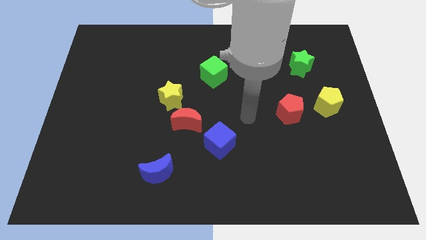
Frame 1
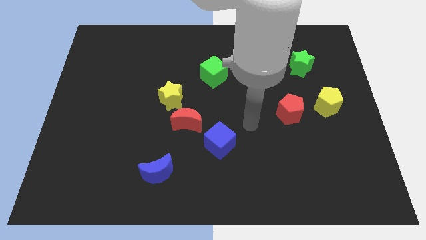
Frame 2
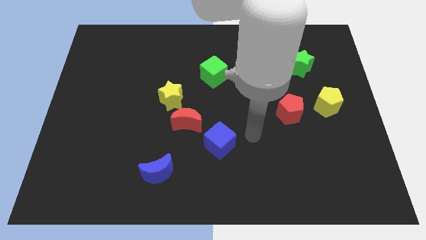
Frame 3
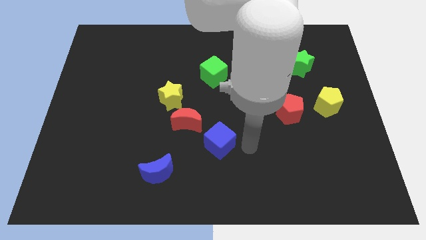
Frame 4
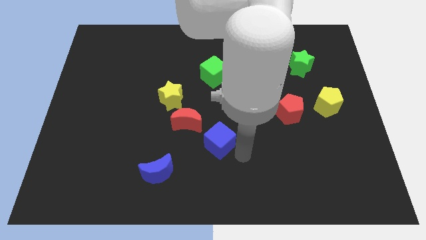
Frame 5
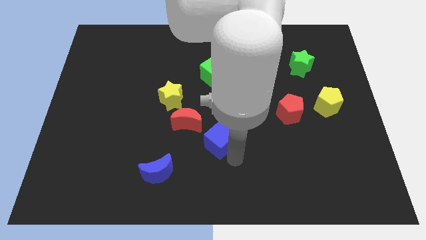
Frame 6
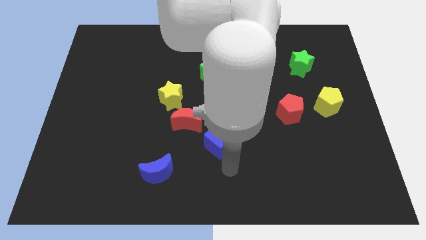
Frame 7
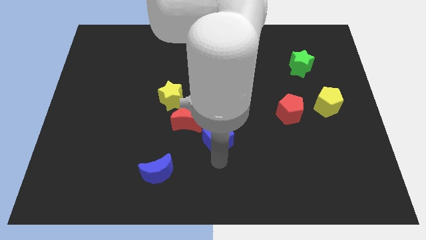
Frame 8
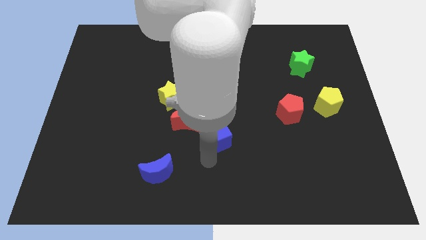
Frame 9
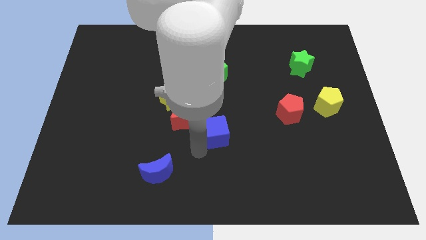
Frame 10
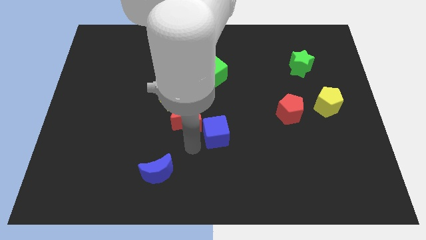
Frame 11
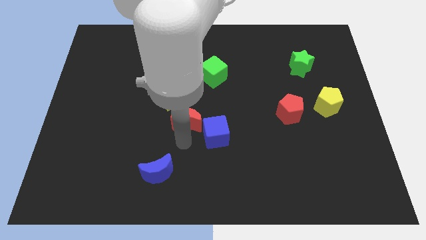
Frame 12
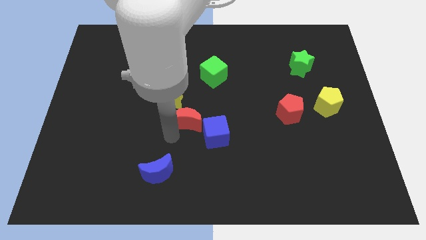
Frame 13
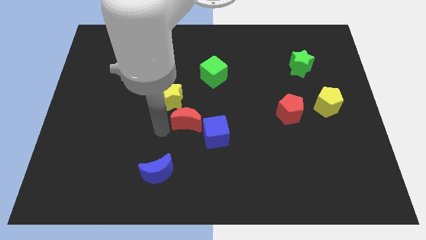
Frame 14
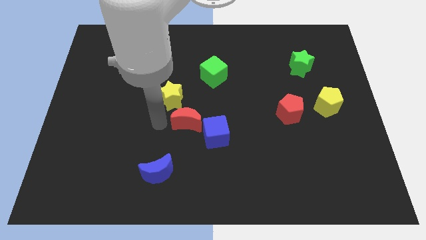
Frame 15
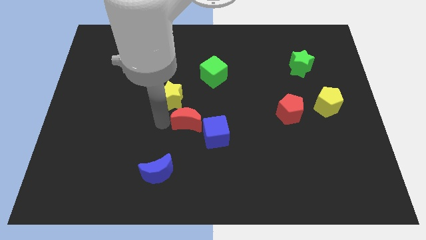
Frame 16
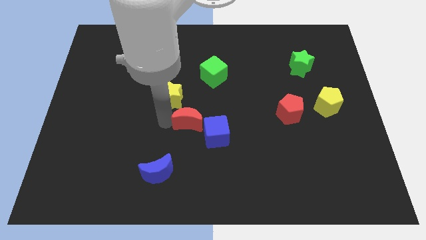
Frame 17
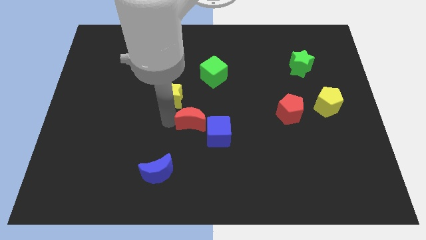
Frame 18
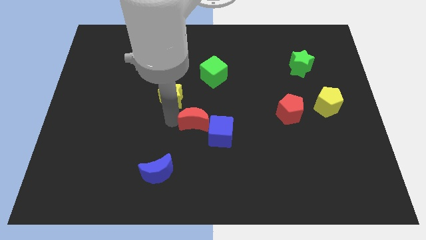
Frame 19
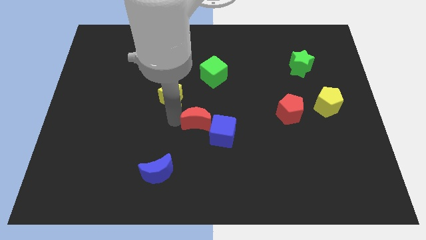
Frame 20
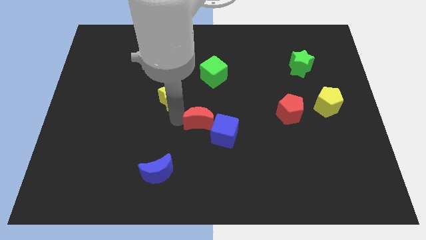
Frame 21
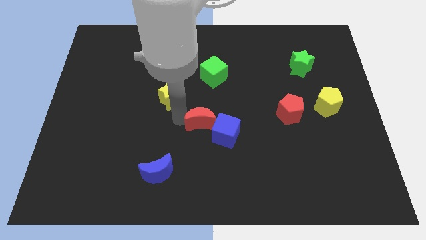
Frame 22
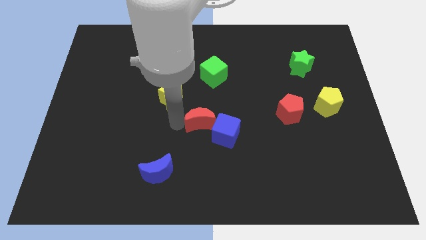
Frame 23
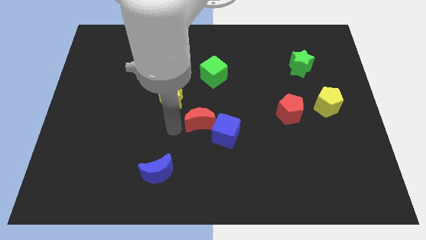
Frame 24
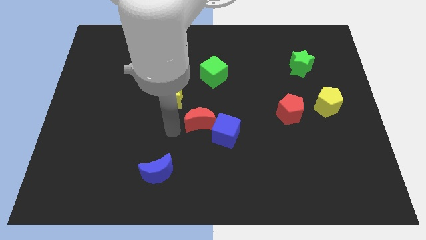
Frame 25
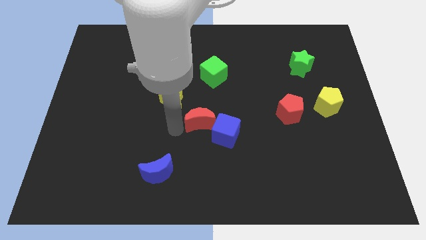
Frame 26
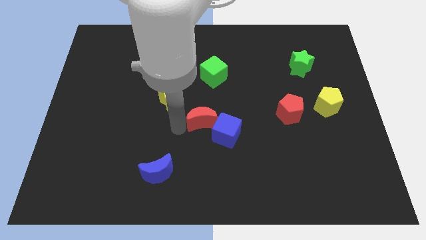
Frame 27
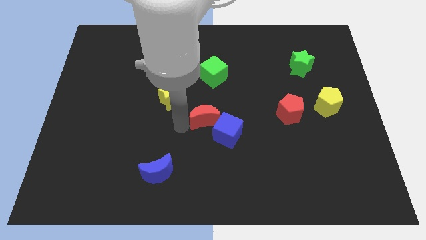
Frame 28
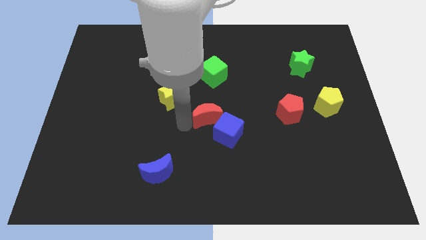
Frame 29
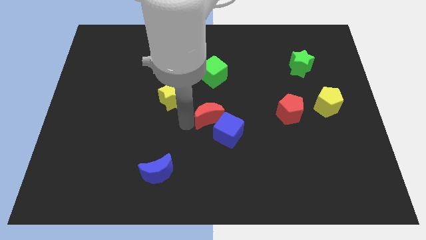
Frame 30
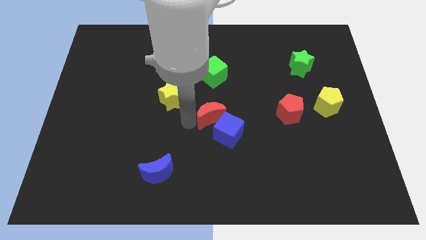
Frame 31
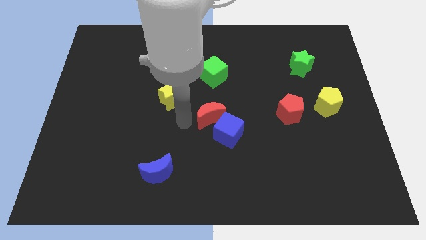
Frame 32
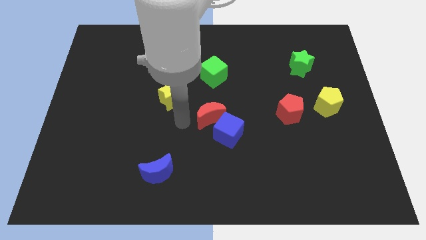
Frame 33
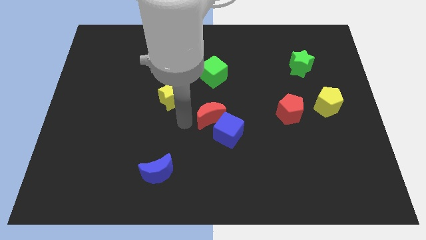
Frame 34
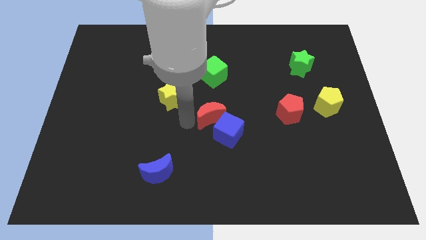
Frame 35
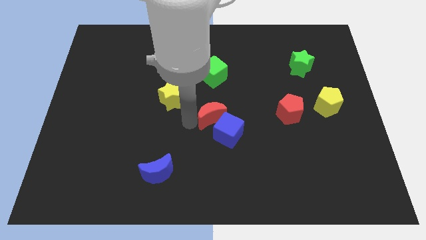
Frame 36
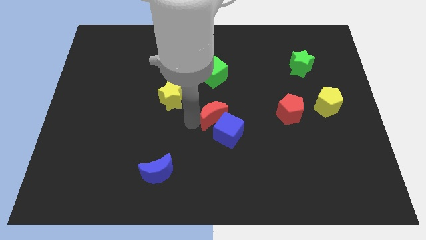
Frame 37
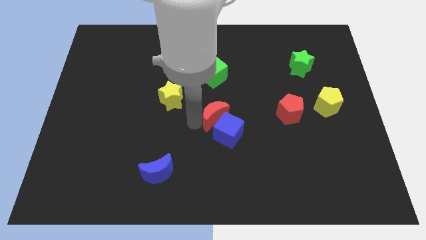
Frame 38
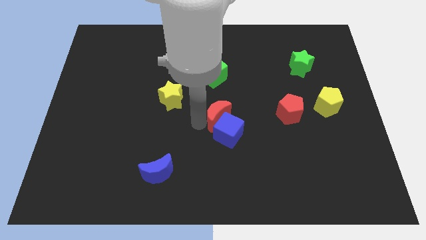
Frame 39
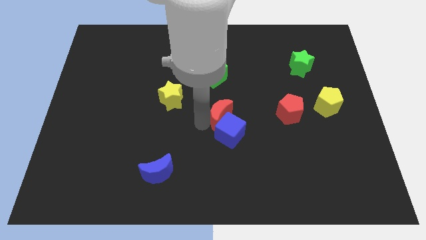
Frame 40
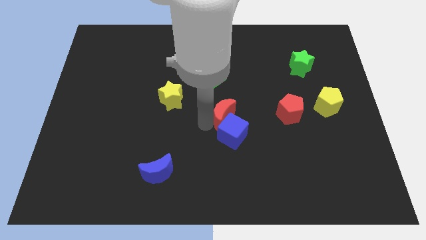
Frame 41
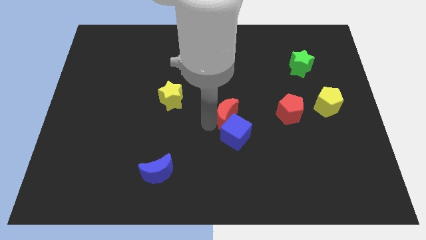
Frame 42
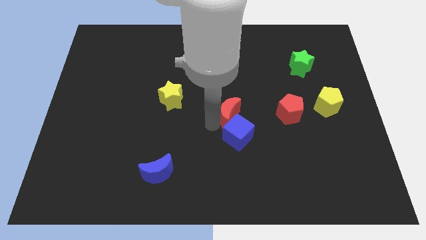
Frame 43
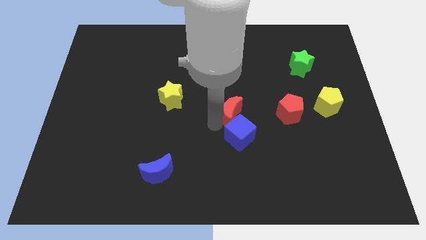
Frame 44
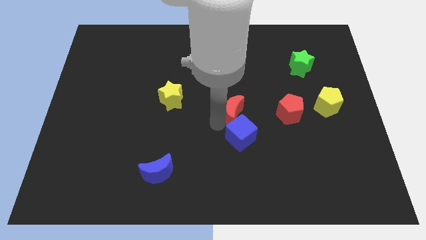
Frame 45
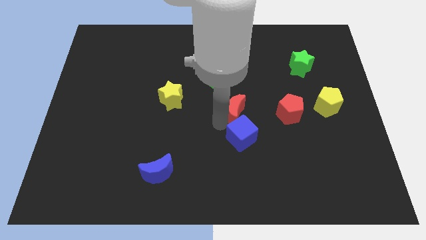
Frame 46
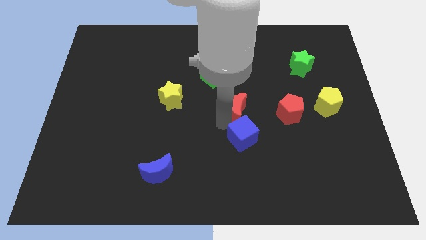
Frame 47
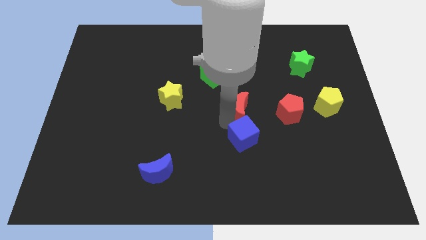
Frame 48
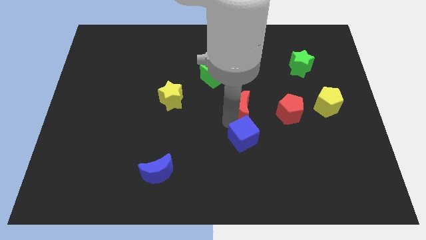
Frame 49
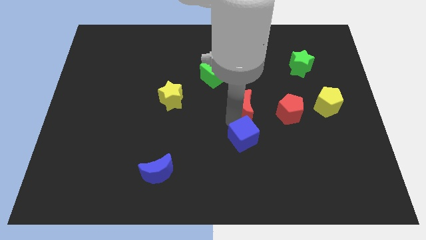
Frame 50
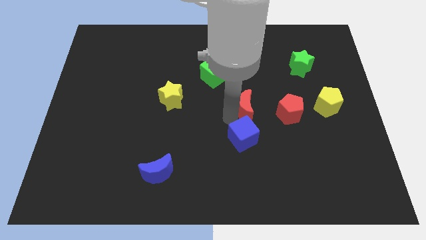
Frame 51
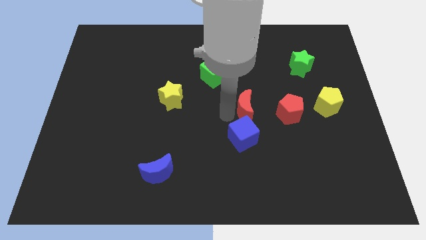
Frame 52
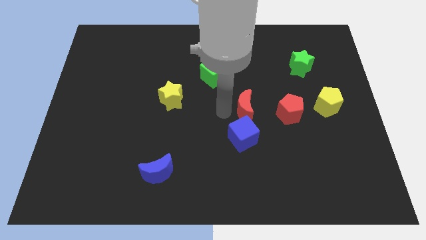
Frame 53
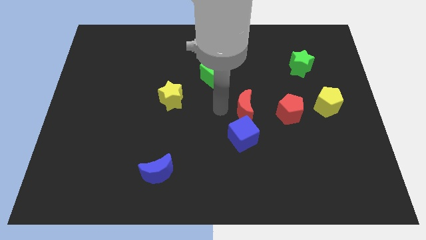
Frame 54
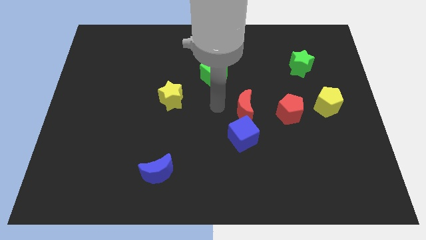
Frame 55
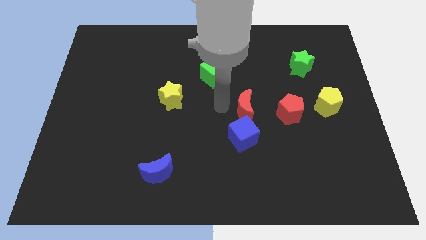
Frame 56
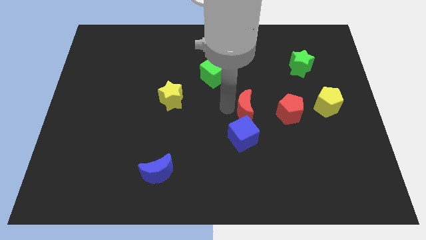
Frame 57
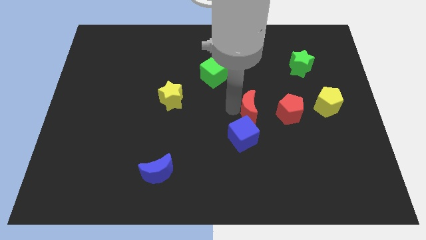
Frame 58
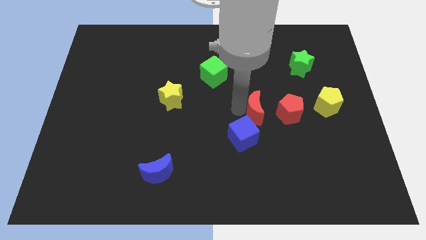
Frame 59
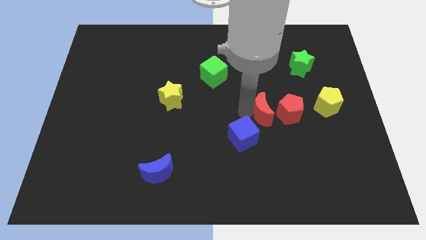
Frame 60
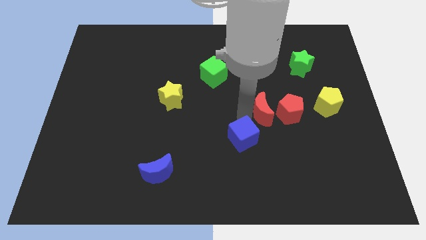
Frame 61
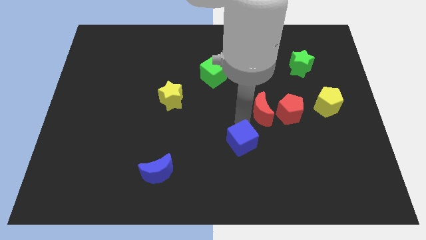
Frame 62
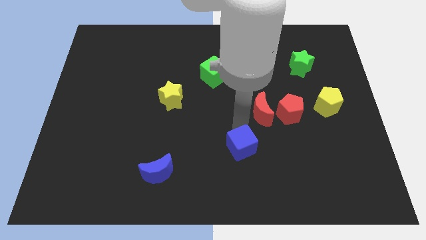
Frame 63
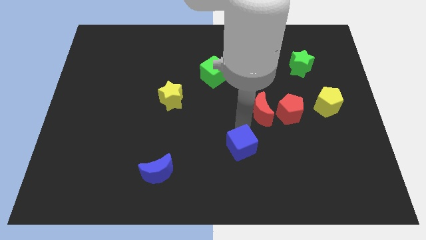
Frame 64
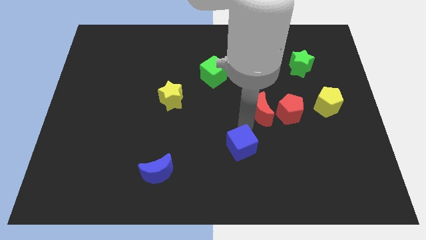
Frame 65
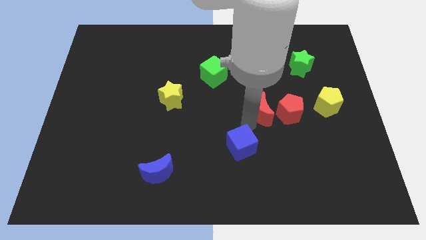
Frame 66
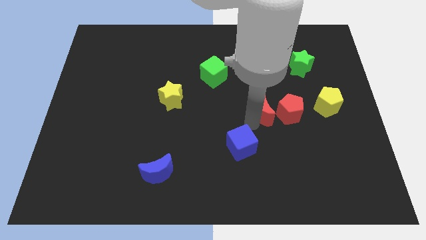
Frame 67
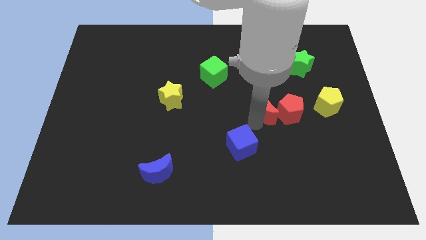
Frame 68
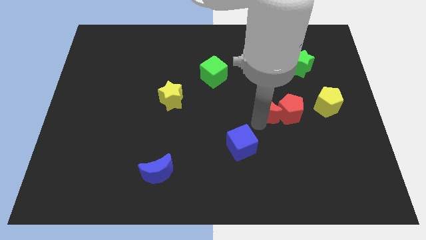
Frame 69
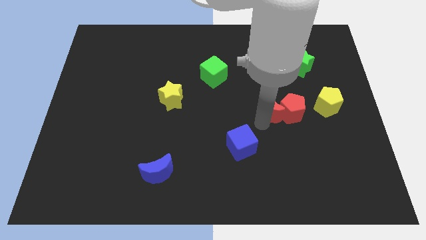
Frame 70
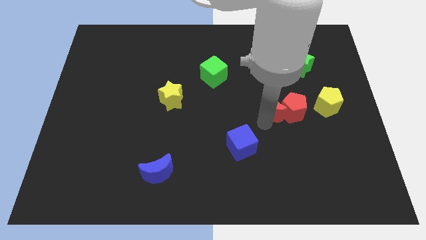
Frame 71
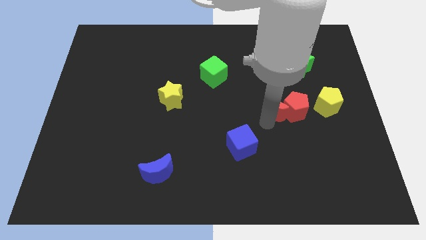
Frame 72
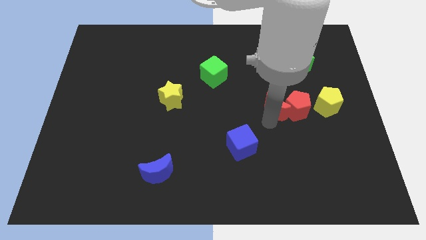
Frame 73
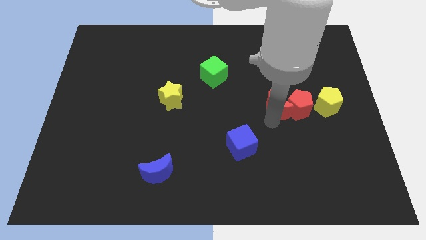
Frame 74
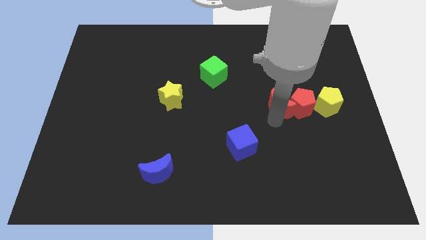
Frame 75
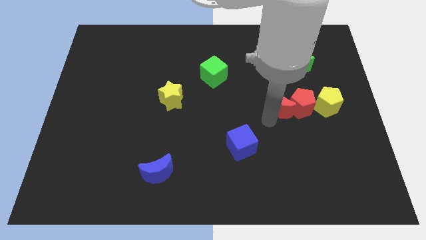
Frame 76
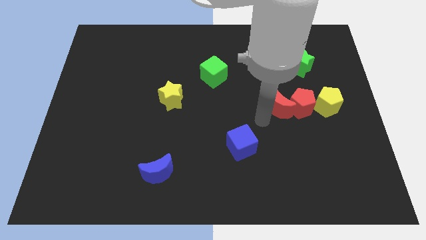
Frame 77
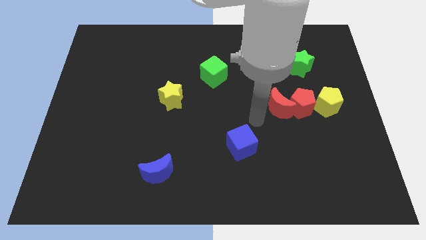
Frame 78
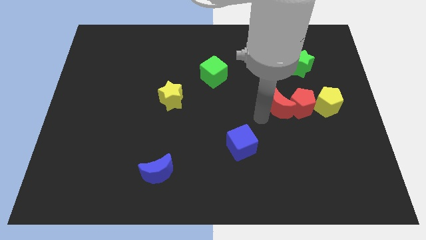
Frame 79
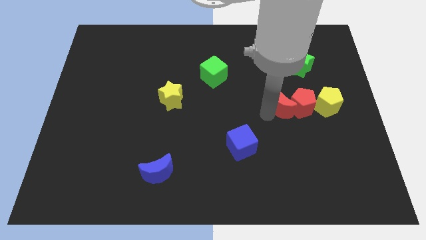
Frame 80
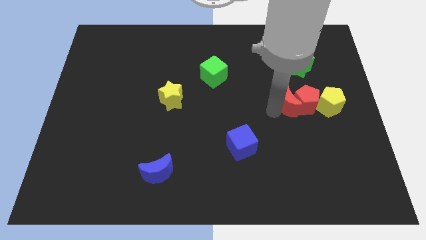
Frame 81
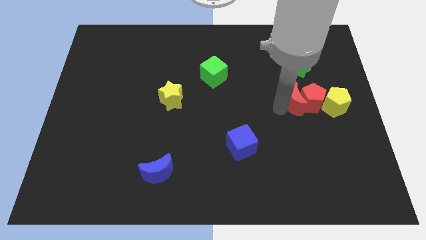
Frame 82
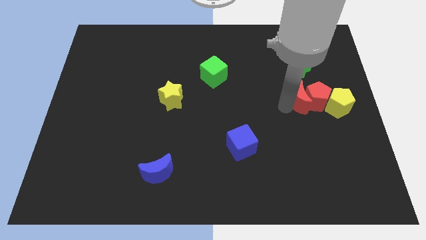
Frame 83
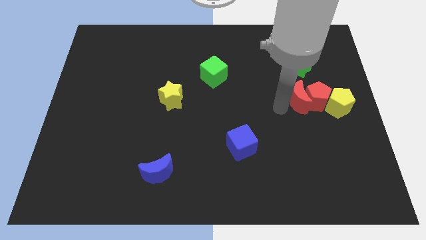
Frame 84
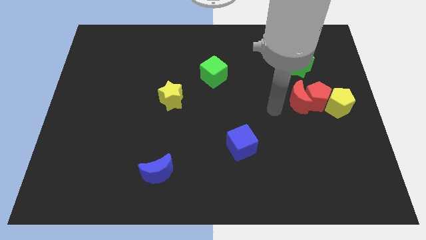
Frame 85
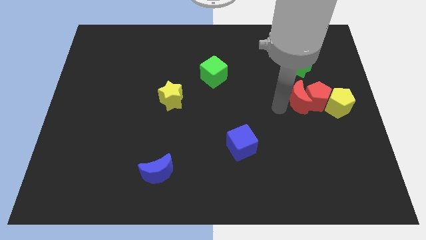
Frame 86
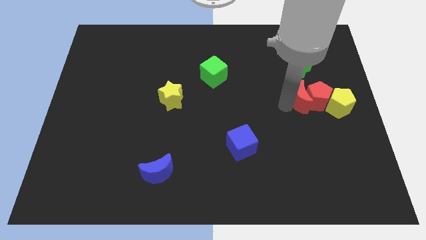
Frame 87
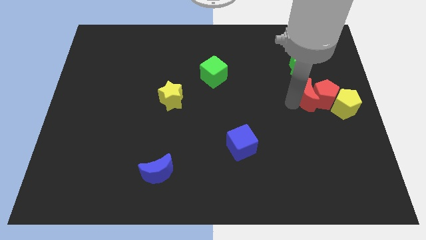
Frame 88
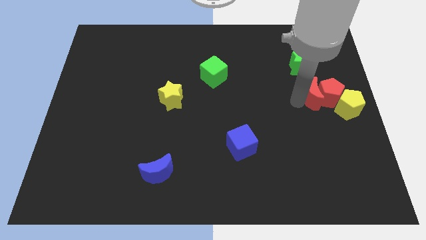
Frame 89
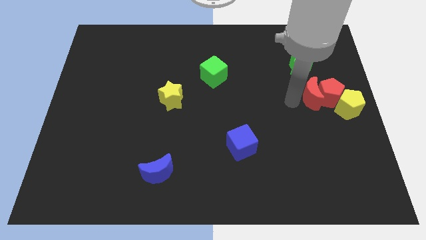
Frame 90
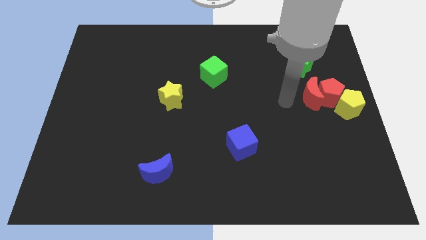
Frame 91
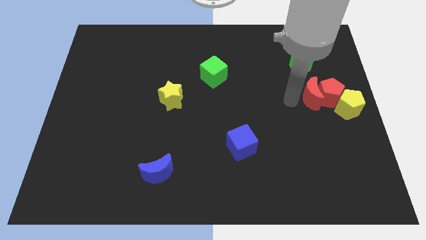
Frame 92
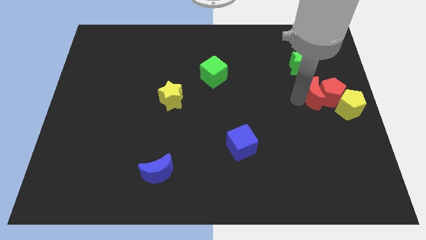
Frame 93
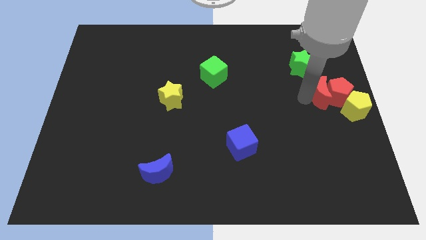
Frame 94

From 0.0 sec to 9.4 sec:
put the red moon to the right side
